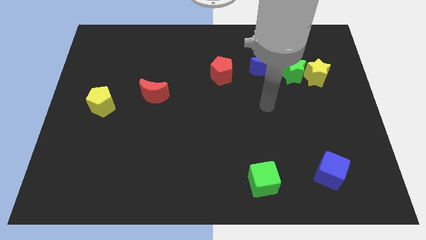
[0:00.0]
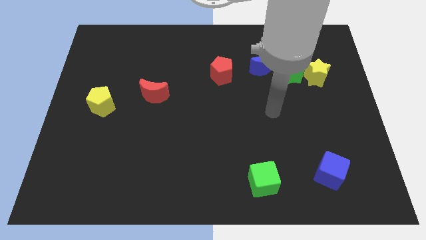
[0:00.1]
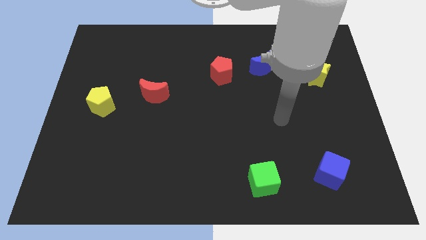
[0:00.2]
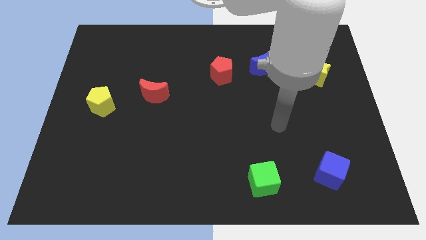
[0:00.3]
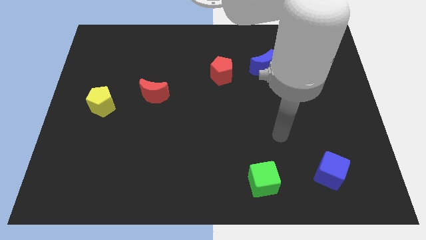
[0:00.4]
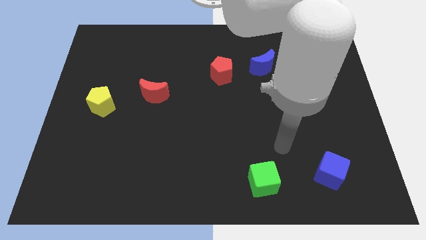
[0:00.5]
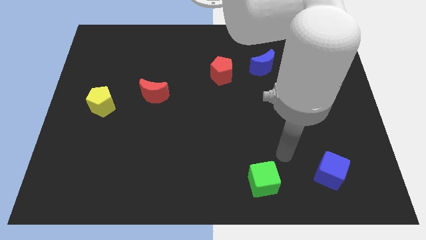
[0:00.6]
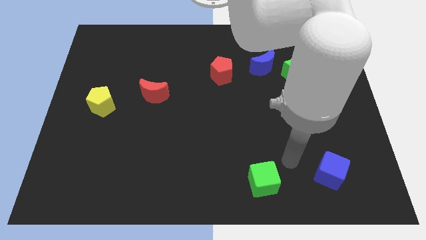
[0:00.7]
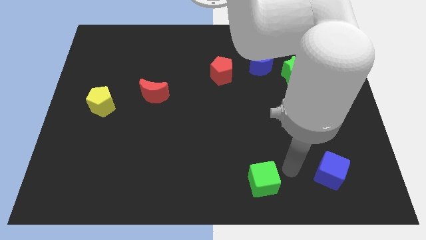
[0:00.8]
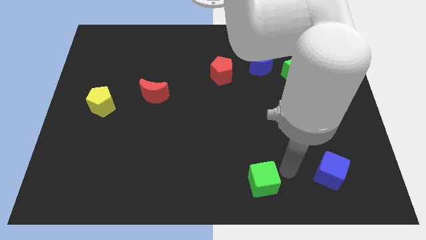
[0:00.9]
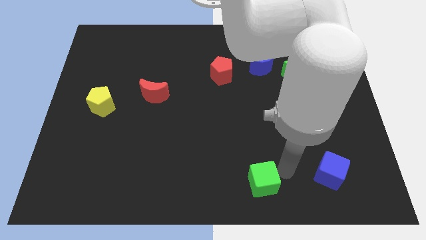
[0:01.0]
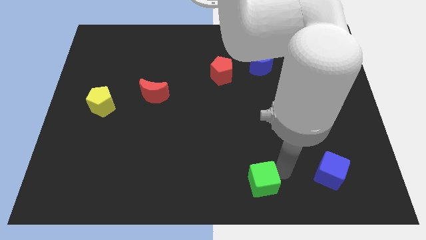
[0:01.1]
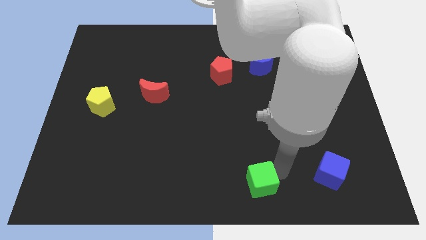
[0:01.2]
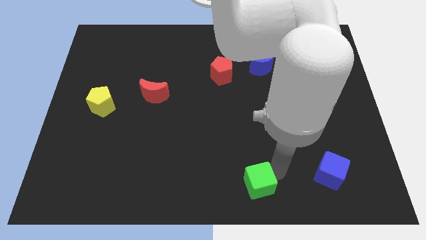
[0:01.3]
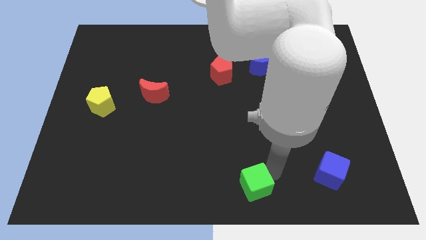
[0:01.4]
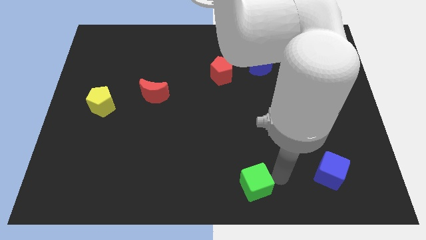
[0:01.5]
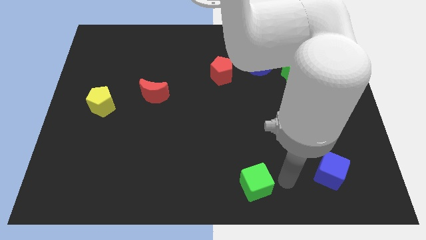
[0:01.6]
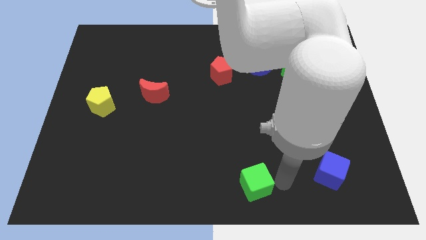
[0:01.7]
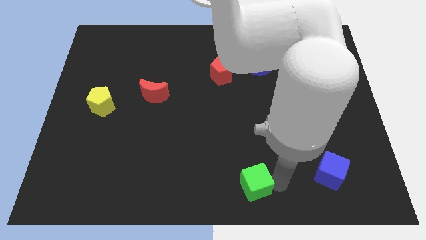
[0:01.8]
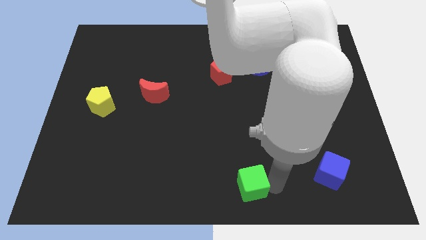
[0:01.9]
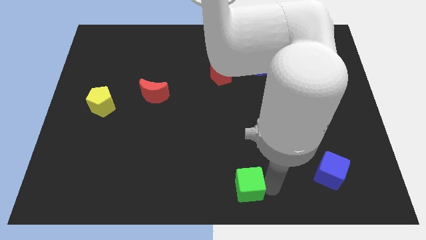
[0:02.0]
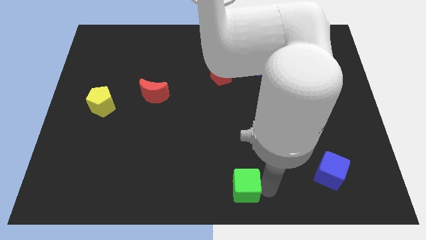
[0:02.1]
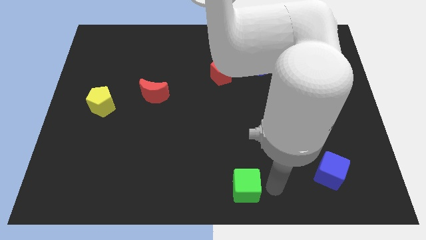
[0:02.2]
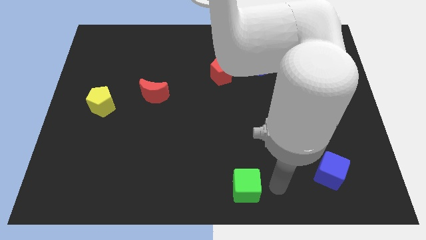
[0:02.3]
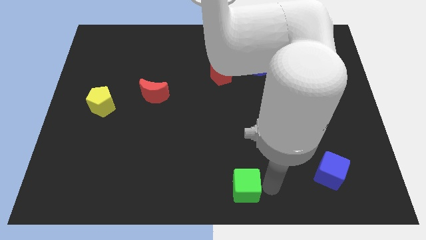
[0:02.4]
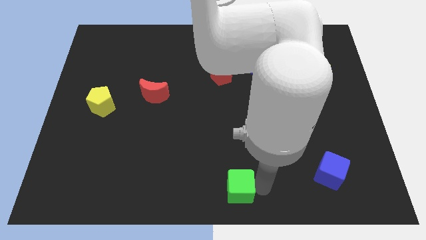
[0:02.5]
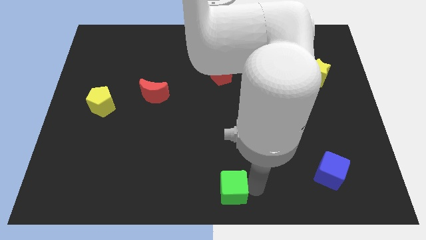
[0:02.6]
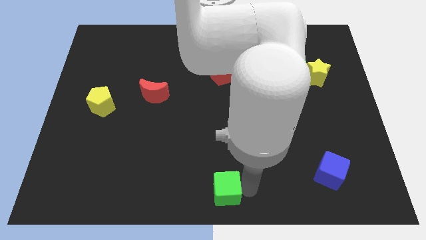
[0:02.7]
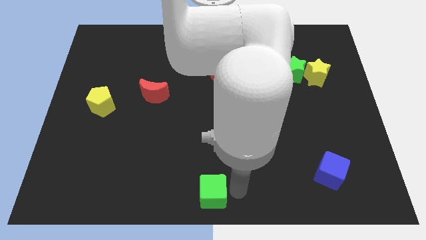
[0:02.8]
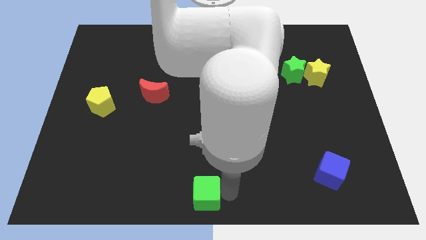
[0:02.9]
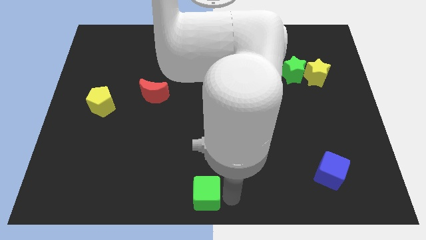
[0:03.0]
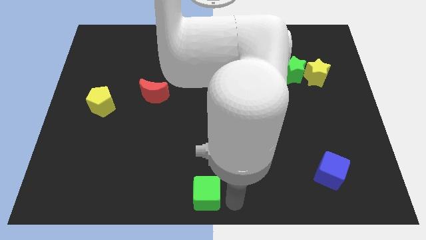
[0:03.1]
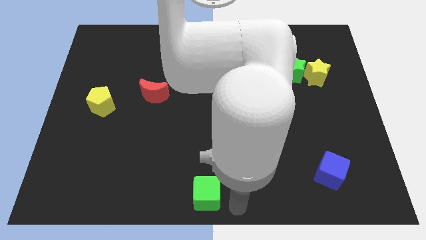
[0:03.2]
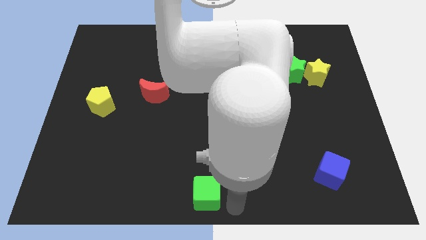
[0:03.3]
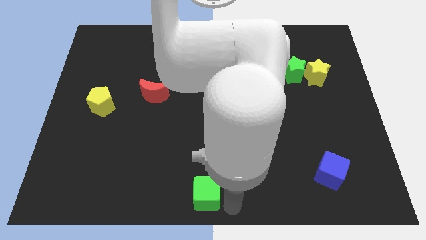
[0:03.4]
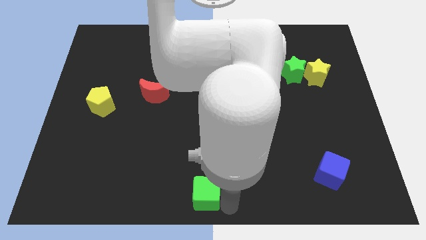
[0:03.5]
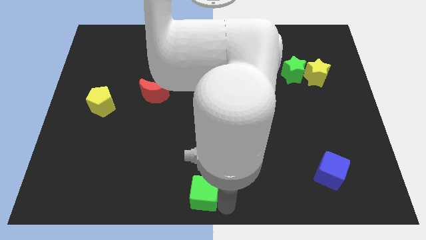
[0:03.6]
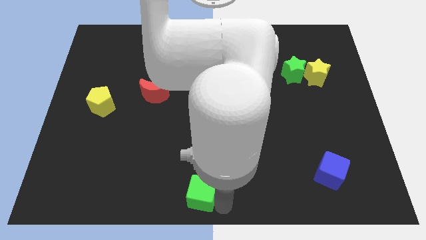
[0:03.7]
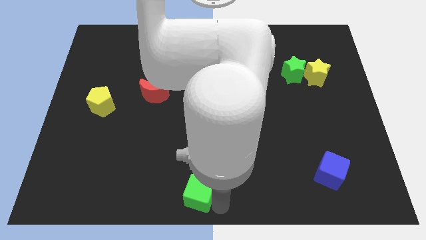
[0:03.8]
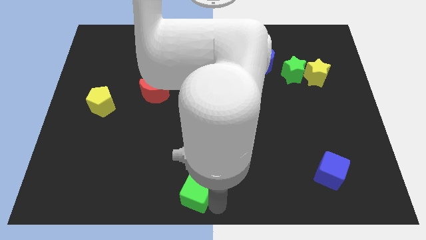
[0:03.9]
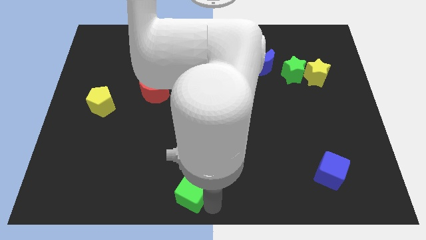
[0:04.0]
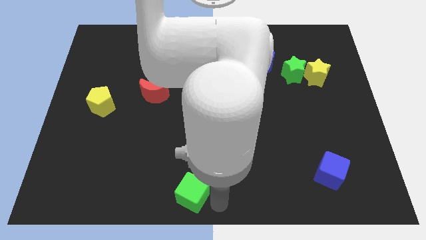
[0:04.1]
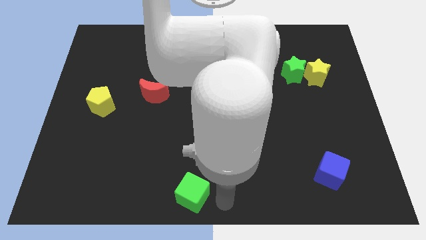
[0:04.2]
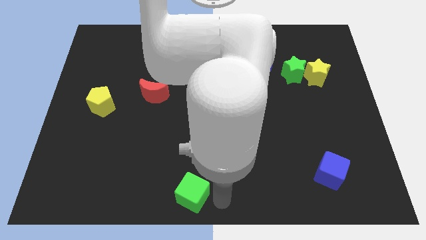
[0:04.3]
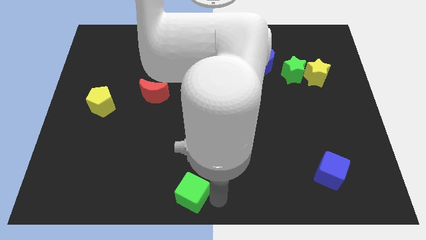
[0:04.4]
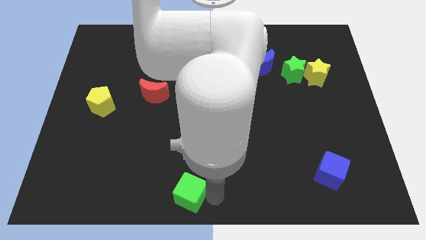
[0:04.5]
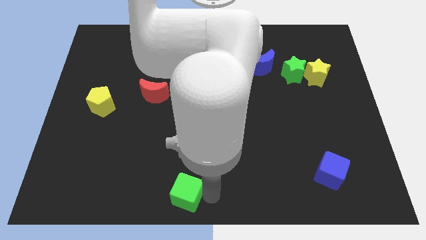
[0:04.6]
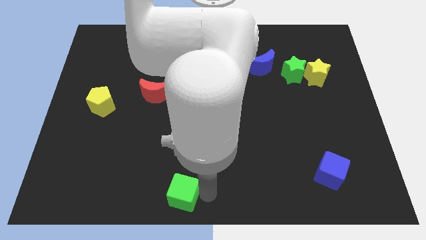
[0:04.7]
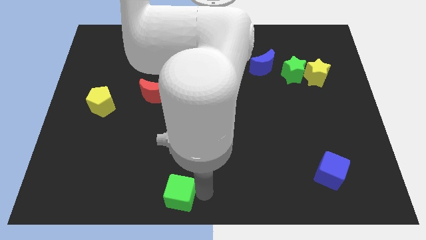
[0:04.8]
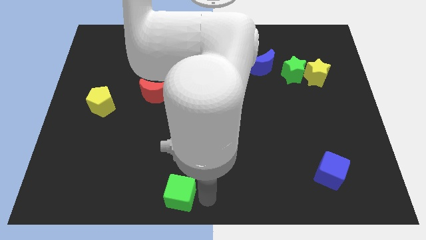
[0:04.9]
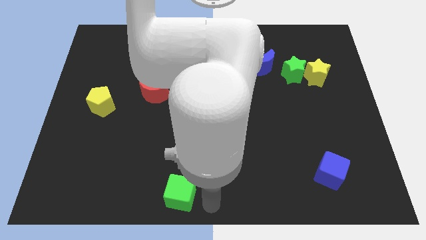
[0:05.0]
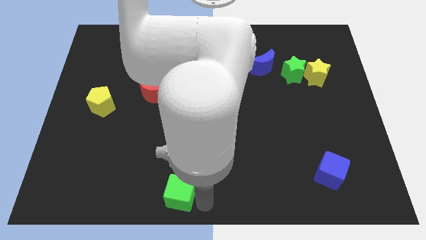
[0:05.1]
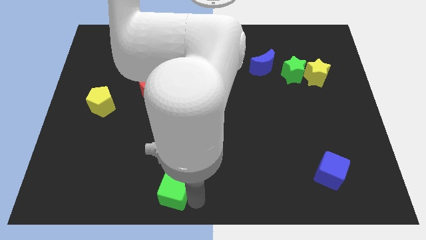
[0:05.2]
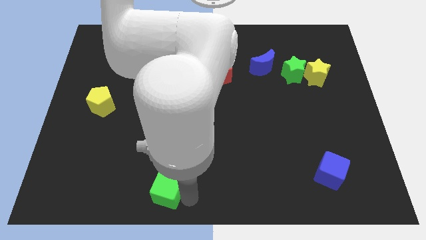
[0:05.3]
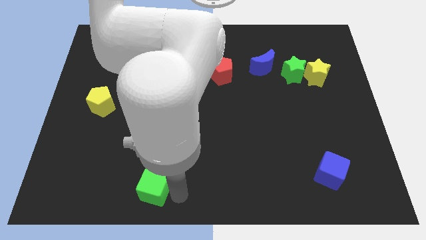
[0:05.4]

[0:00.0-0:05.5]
move the green cube to the left

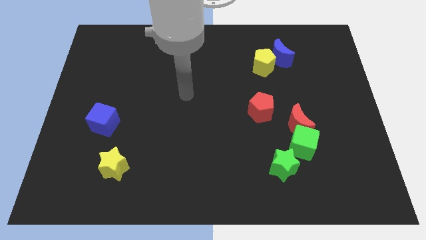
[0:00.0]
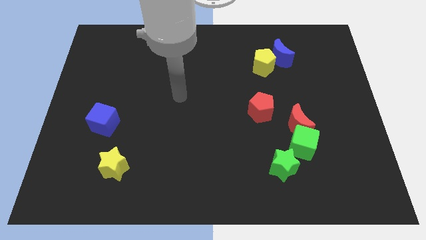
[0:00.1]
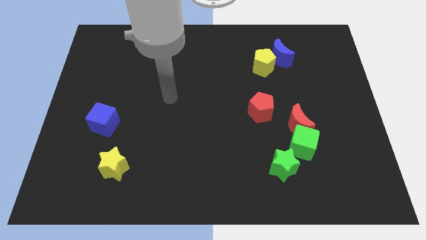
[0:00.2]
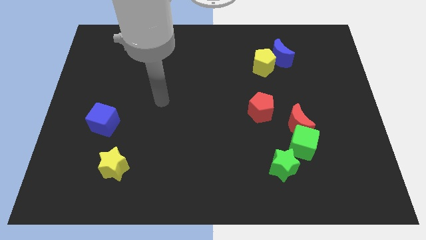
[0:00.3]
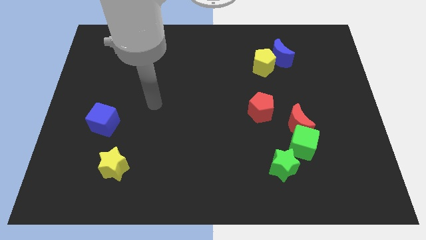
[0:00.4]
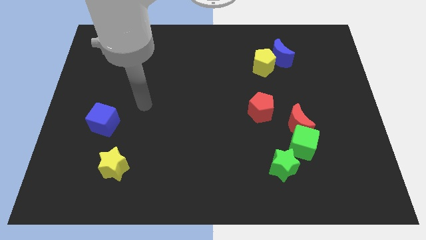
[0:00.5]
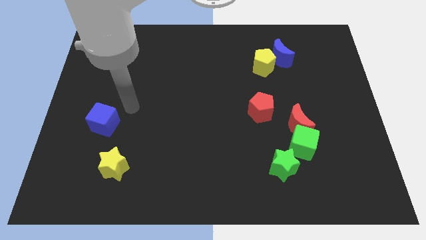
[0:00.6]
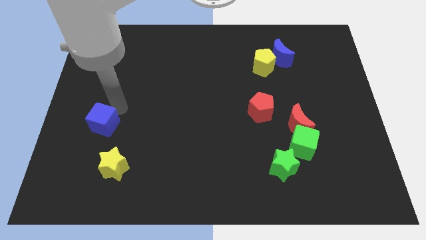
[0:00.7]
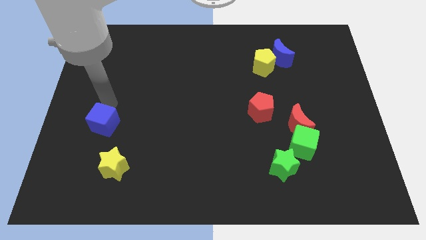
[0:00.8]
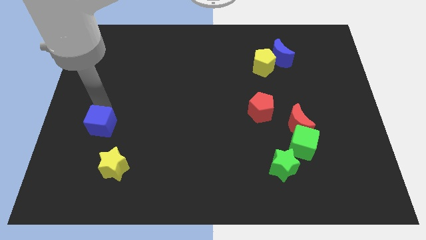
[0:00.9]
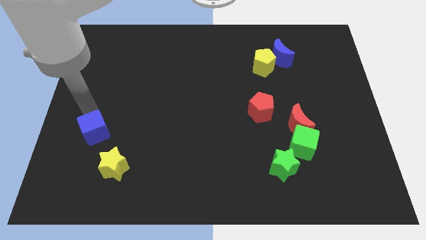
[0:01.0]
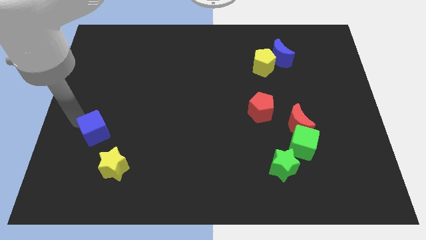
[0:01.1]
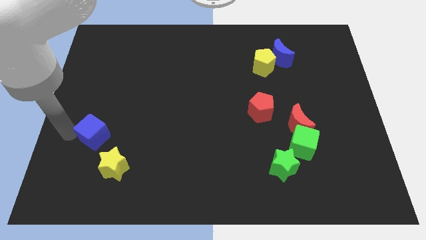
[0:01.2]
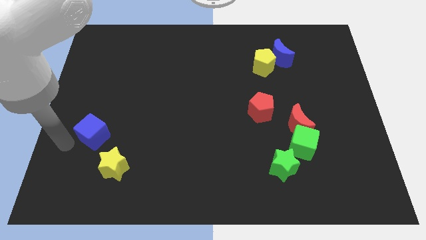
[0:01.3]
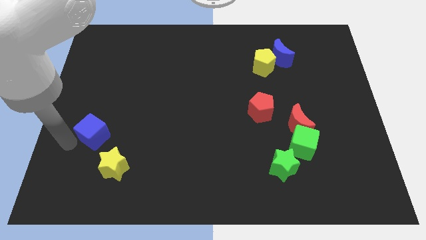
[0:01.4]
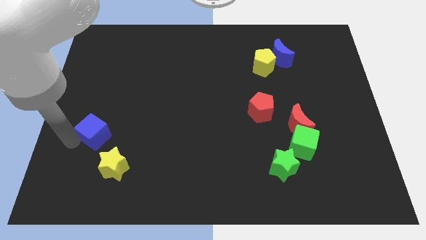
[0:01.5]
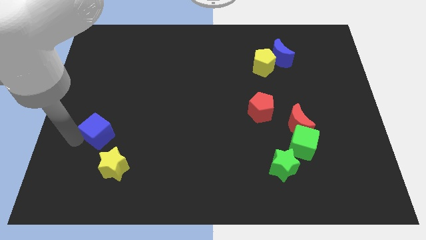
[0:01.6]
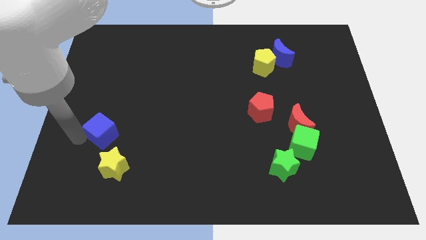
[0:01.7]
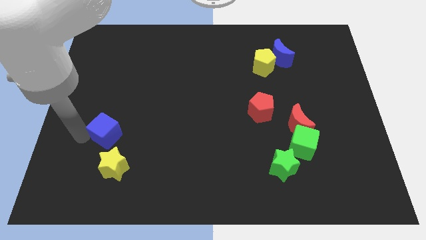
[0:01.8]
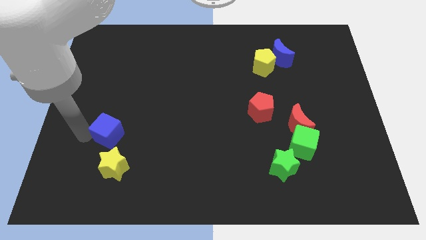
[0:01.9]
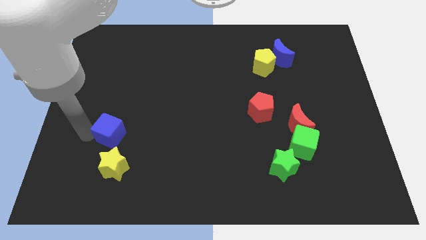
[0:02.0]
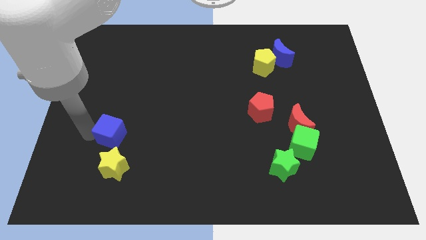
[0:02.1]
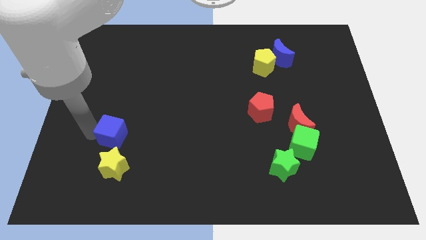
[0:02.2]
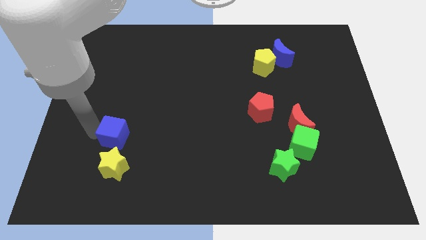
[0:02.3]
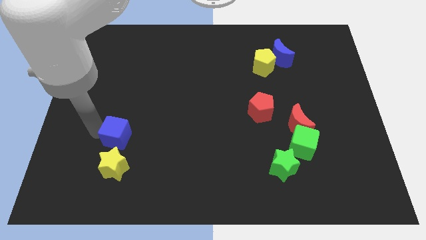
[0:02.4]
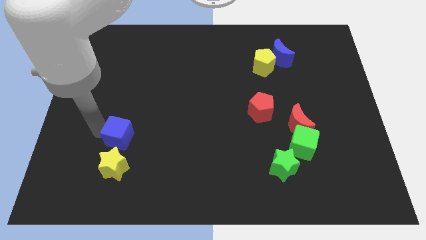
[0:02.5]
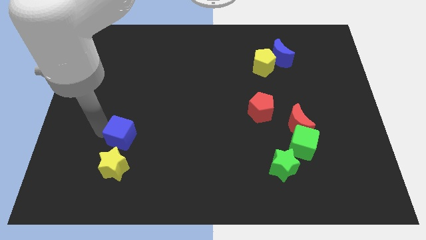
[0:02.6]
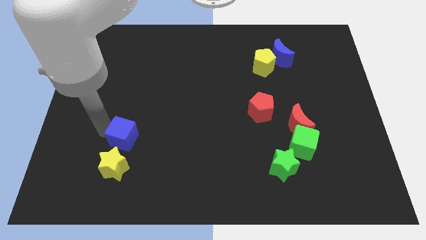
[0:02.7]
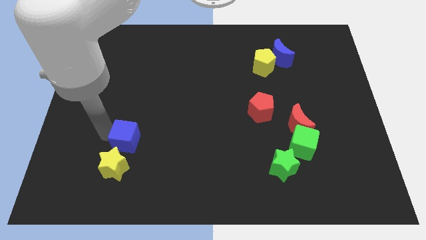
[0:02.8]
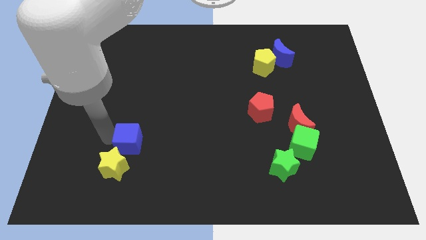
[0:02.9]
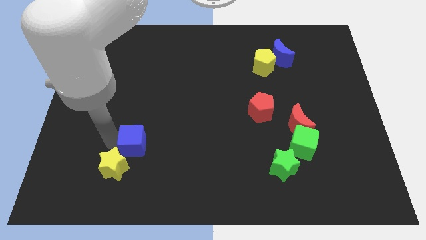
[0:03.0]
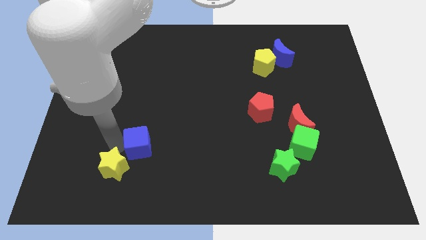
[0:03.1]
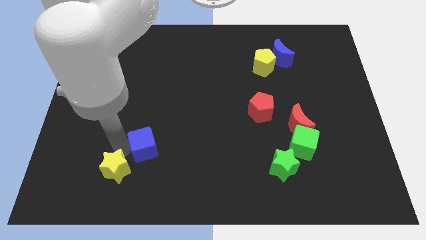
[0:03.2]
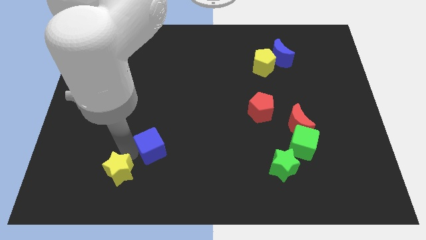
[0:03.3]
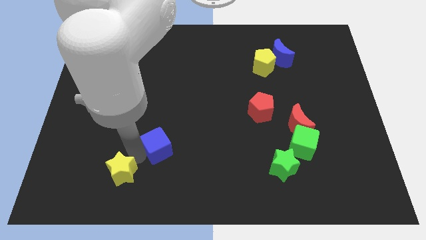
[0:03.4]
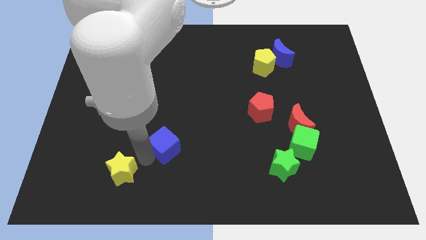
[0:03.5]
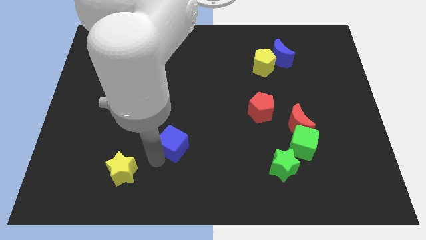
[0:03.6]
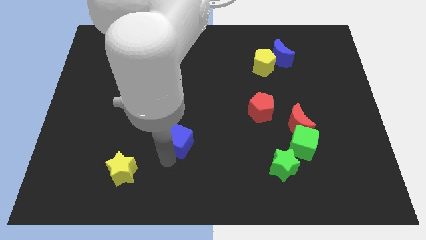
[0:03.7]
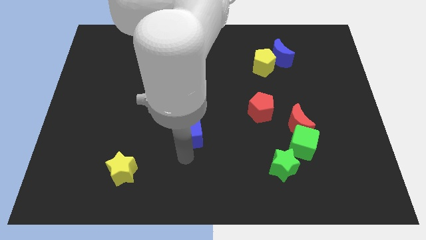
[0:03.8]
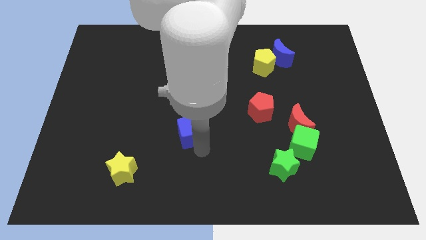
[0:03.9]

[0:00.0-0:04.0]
push the blue cube right
